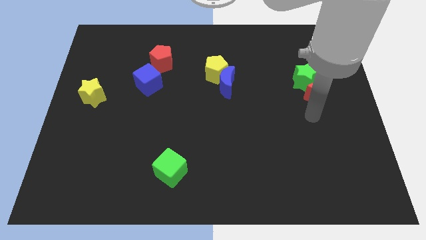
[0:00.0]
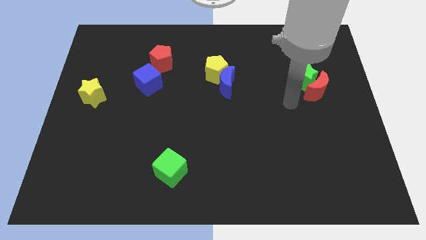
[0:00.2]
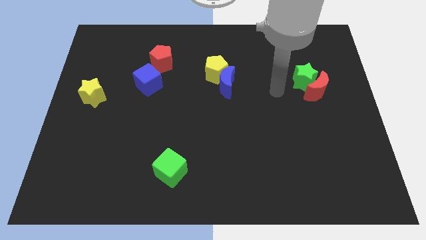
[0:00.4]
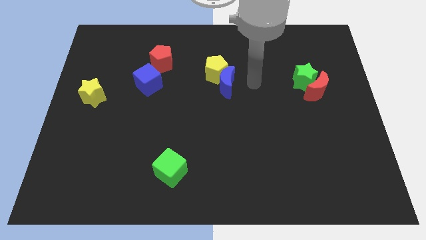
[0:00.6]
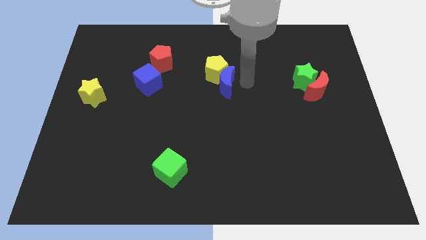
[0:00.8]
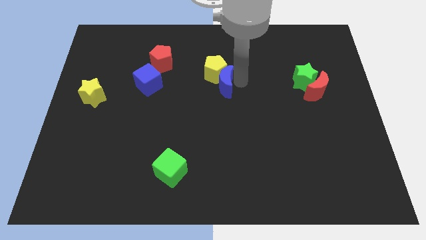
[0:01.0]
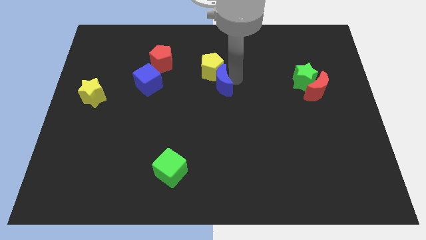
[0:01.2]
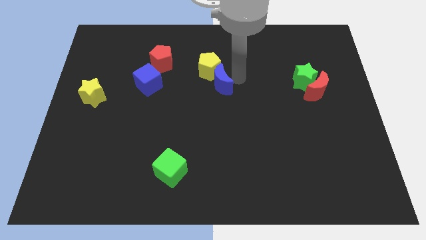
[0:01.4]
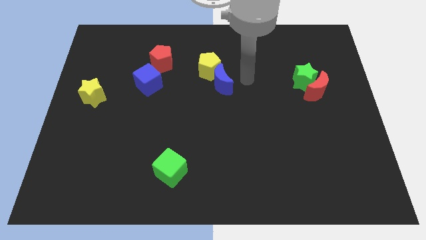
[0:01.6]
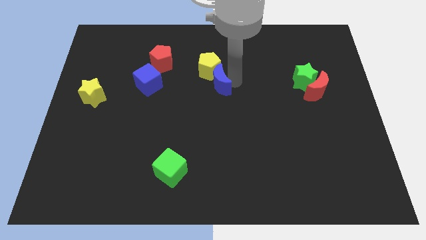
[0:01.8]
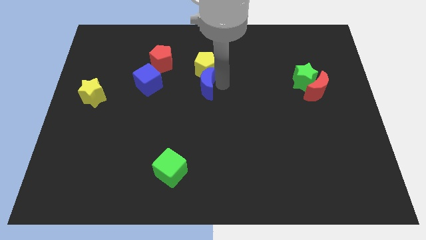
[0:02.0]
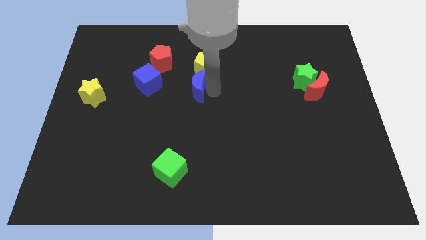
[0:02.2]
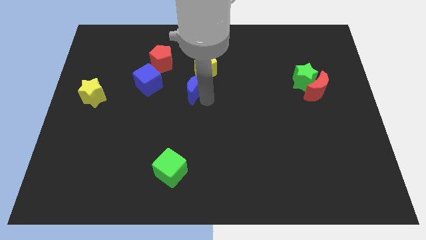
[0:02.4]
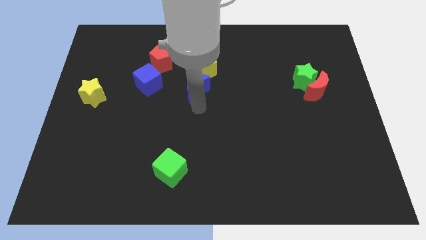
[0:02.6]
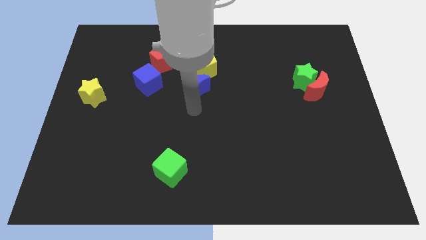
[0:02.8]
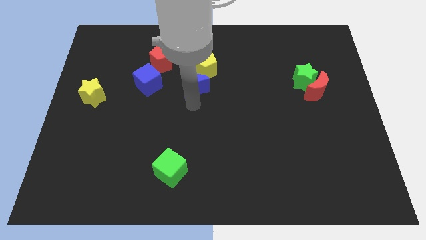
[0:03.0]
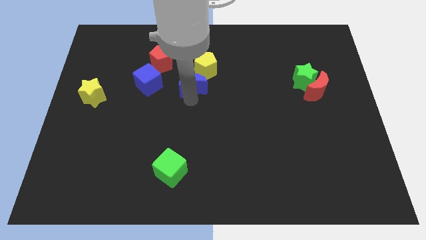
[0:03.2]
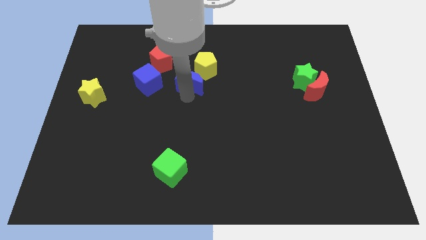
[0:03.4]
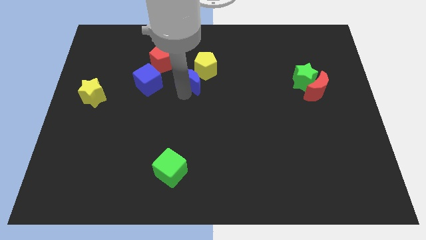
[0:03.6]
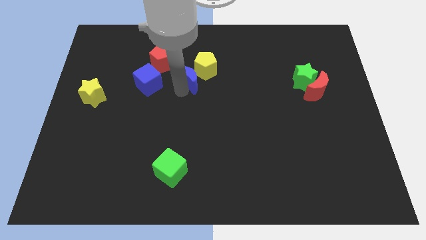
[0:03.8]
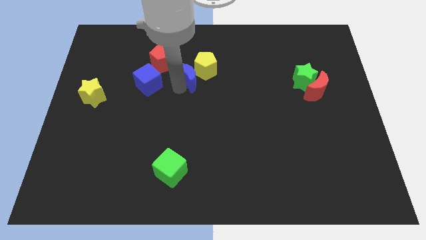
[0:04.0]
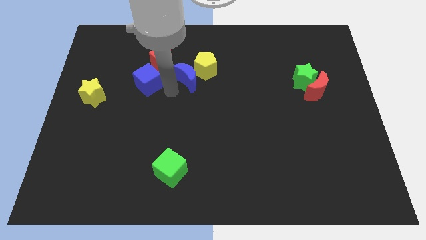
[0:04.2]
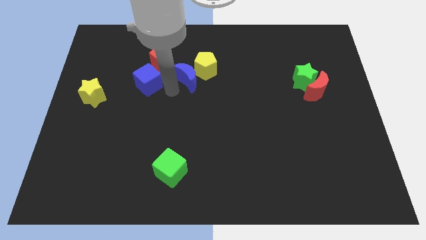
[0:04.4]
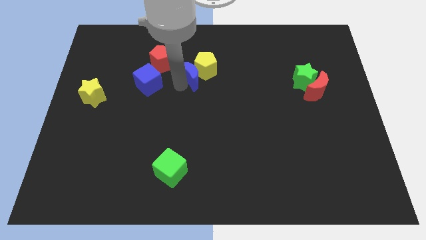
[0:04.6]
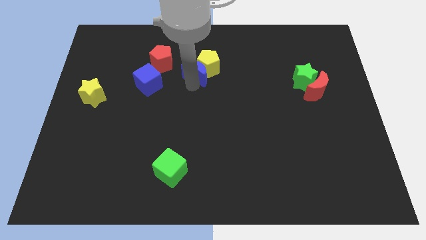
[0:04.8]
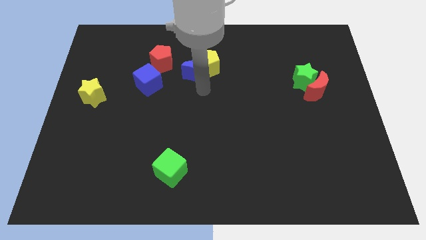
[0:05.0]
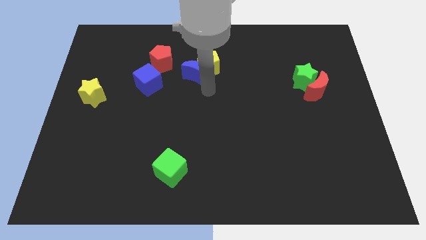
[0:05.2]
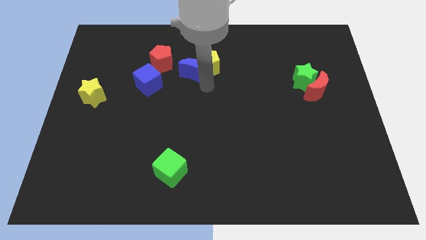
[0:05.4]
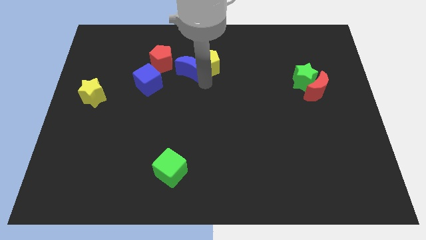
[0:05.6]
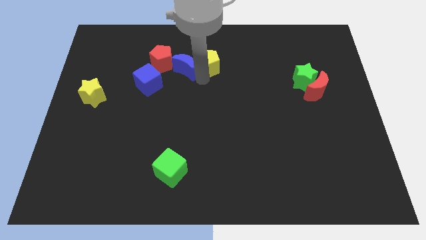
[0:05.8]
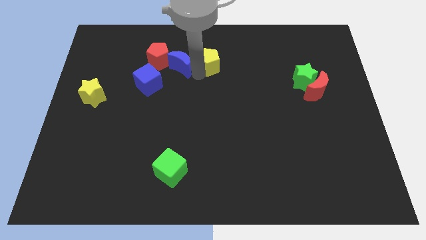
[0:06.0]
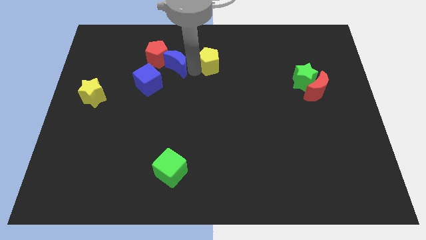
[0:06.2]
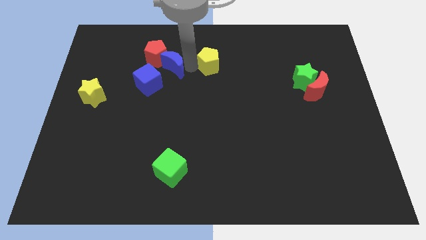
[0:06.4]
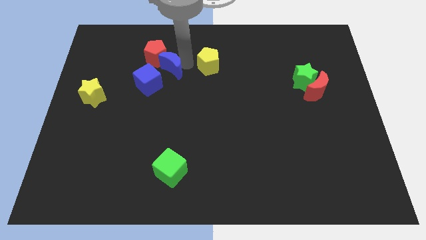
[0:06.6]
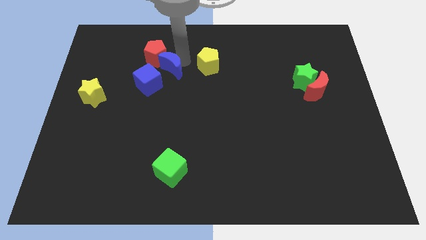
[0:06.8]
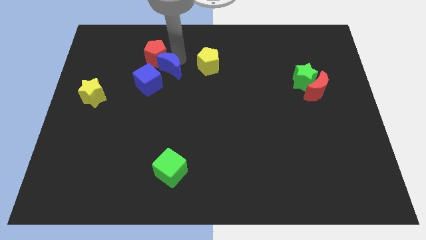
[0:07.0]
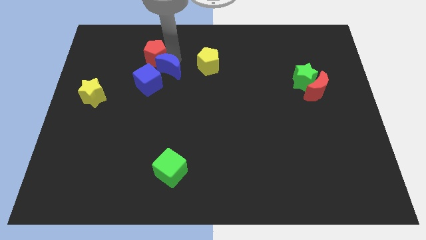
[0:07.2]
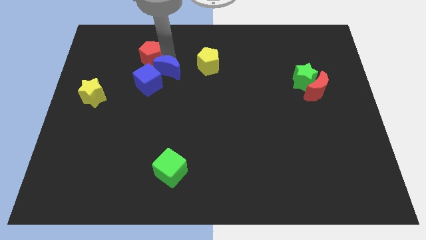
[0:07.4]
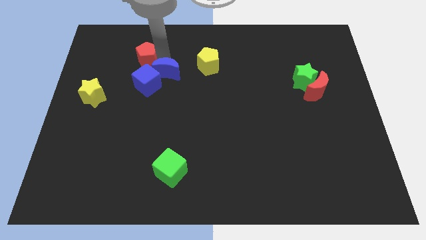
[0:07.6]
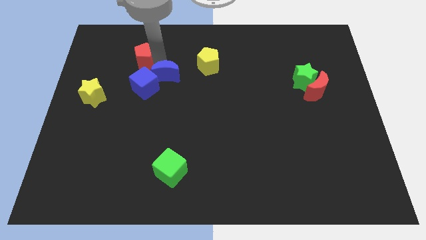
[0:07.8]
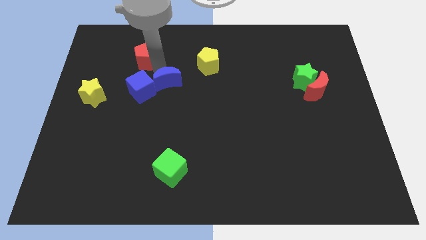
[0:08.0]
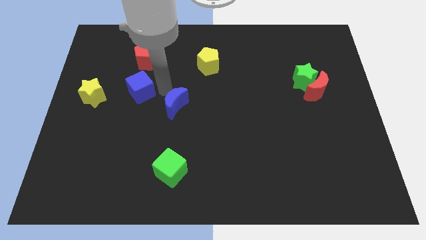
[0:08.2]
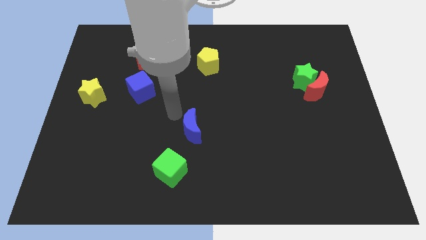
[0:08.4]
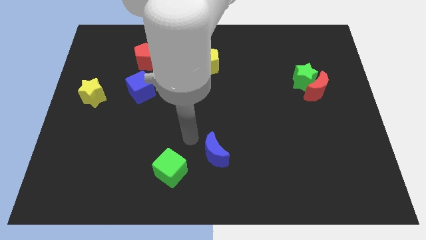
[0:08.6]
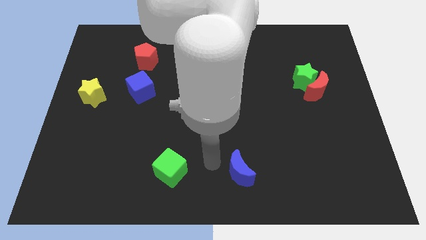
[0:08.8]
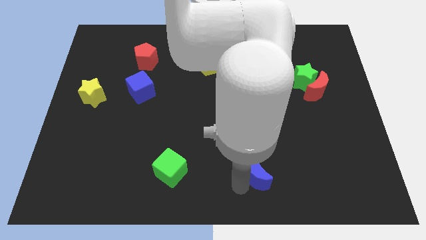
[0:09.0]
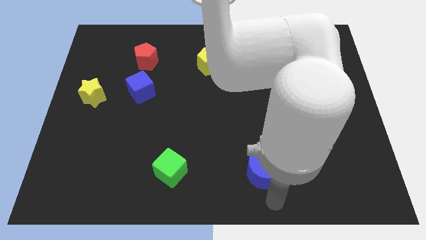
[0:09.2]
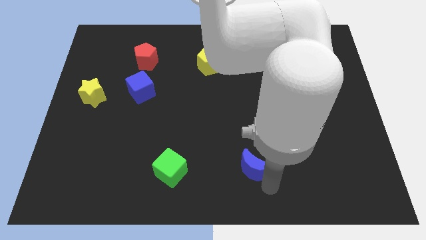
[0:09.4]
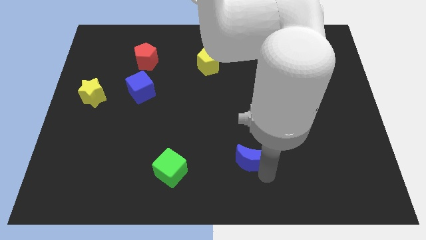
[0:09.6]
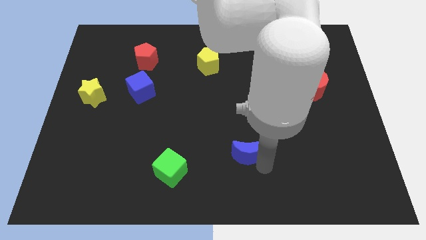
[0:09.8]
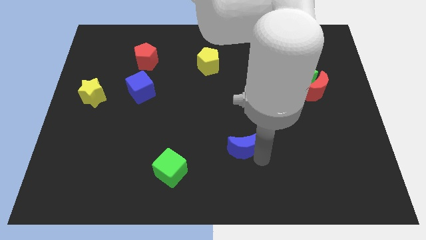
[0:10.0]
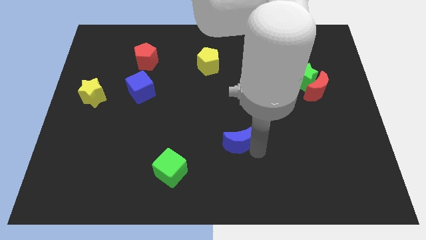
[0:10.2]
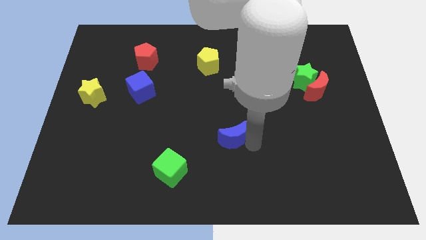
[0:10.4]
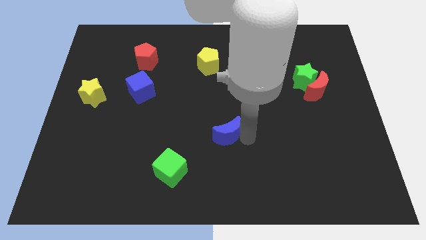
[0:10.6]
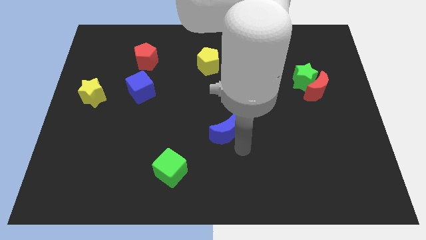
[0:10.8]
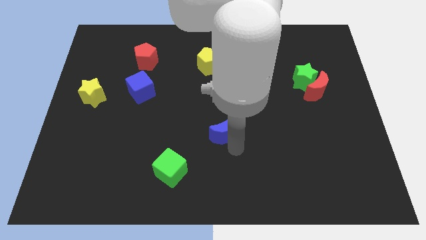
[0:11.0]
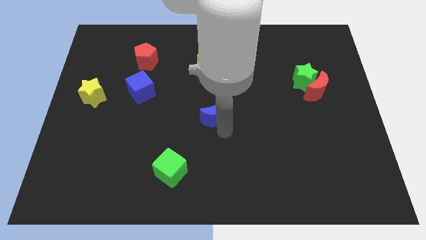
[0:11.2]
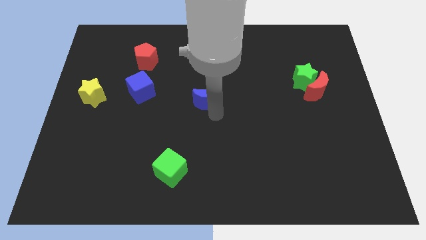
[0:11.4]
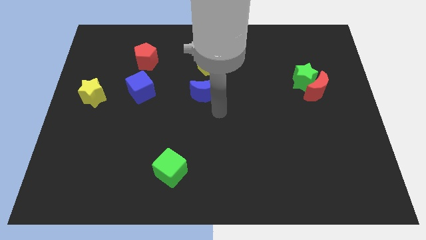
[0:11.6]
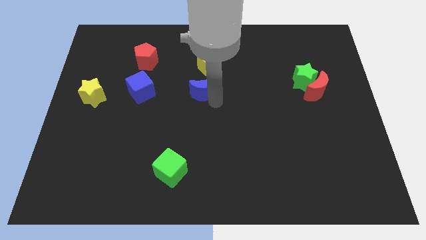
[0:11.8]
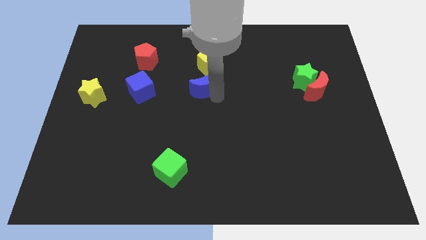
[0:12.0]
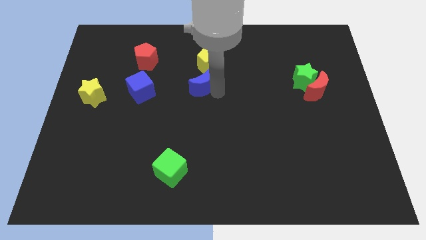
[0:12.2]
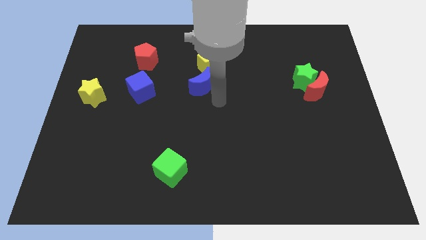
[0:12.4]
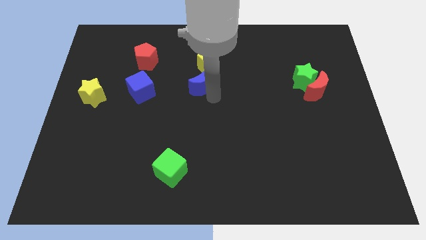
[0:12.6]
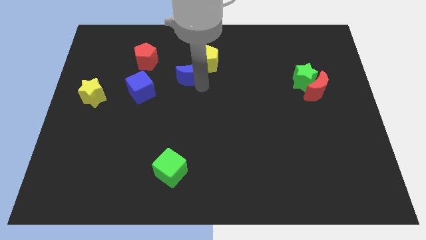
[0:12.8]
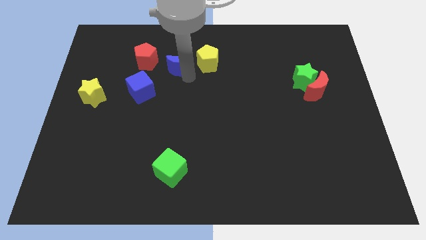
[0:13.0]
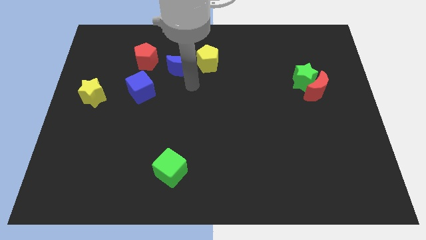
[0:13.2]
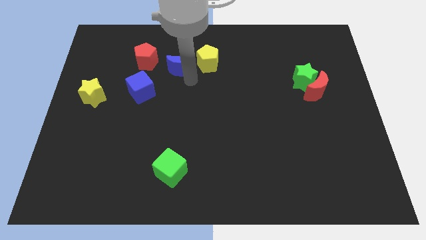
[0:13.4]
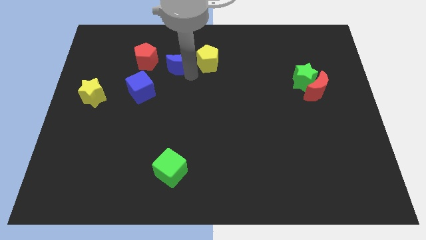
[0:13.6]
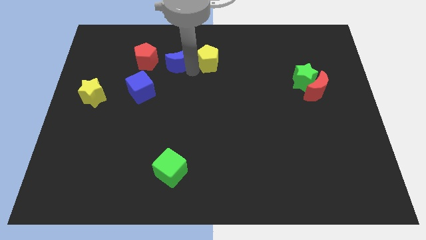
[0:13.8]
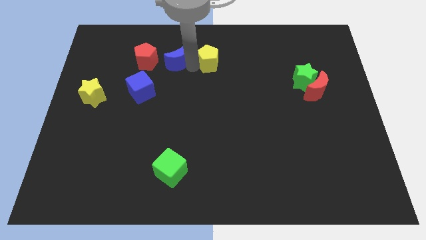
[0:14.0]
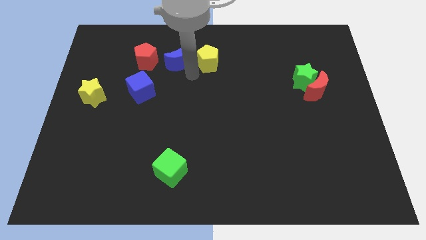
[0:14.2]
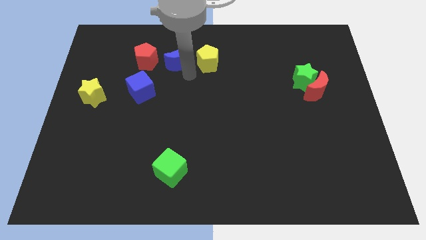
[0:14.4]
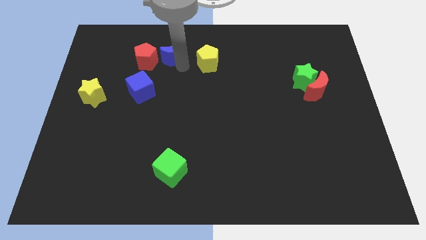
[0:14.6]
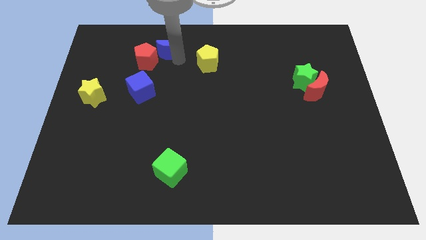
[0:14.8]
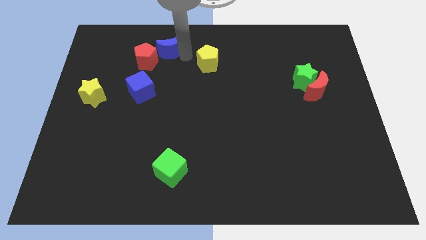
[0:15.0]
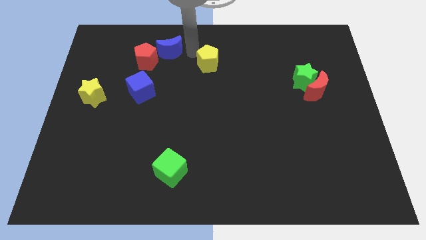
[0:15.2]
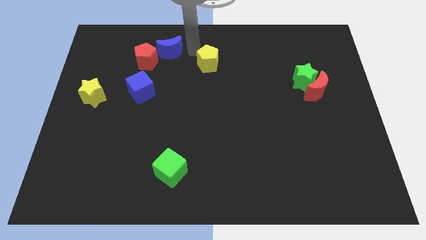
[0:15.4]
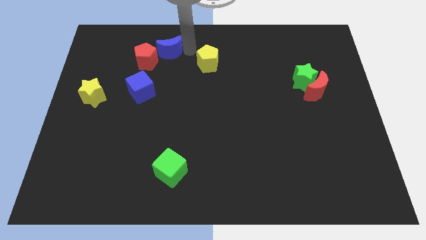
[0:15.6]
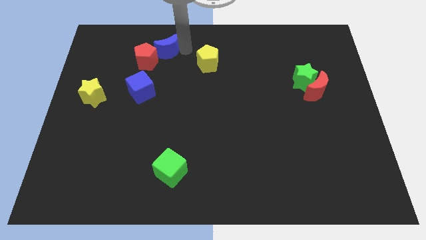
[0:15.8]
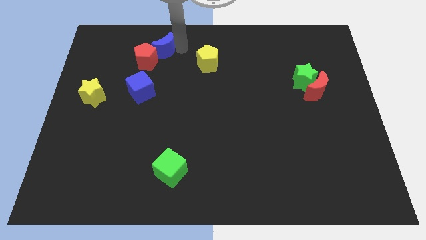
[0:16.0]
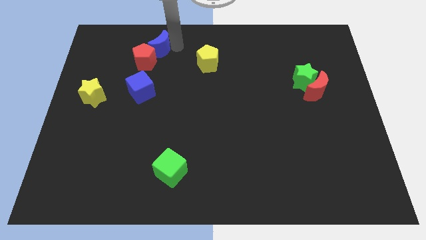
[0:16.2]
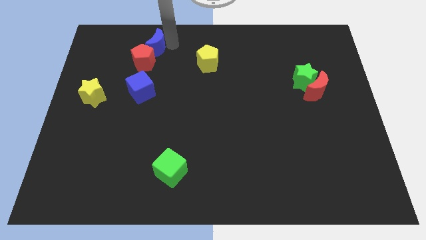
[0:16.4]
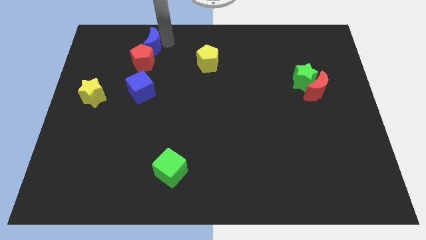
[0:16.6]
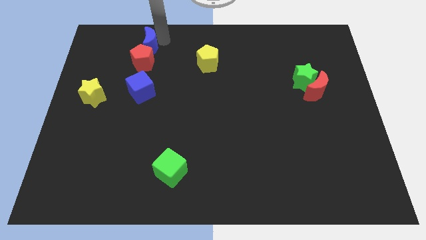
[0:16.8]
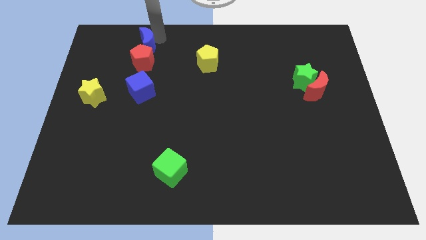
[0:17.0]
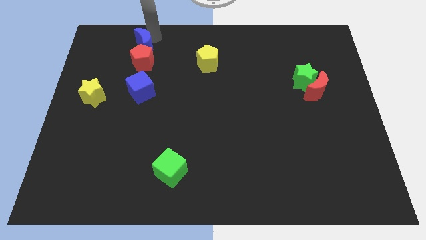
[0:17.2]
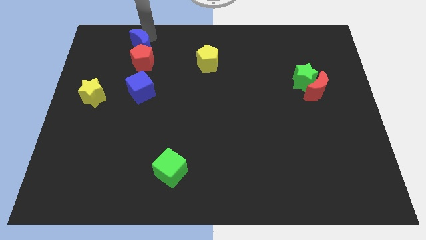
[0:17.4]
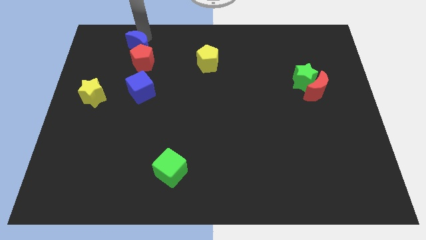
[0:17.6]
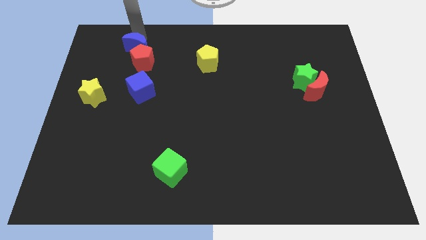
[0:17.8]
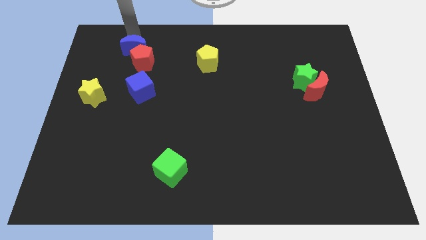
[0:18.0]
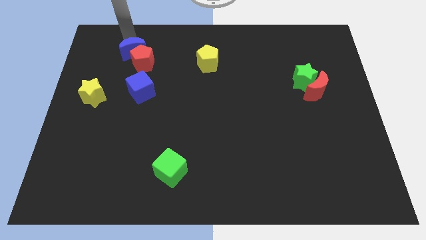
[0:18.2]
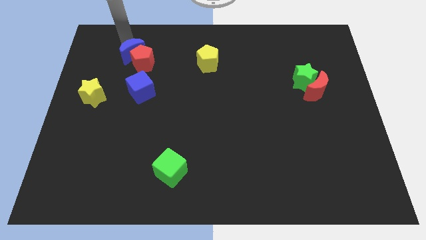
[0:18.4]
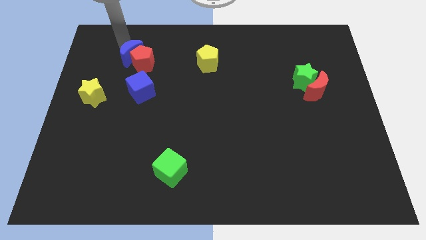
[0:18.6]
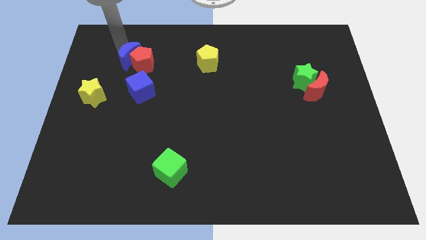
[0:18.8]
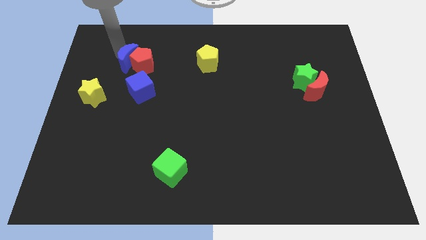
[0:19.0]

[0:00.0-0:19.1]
move the blue moon diagonally up and to the left of the blue cube
